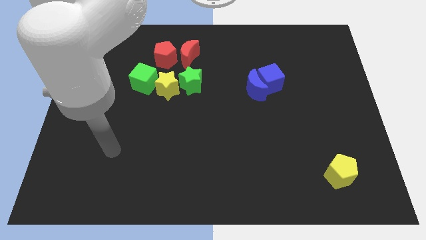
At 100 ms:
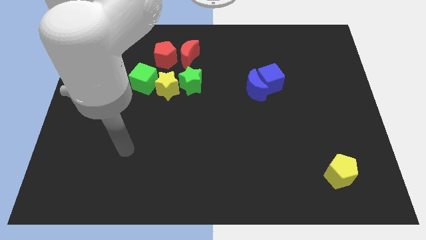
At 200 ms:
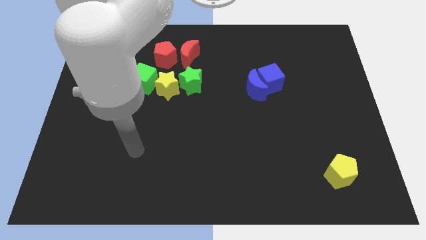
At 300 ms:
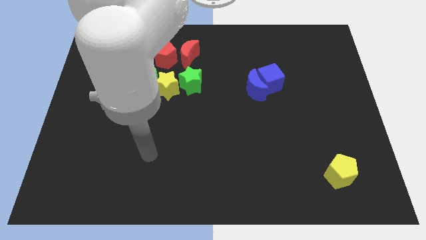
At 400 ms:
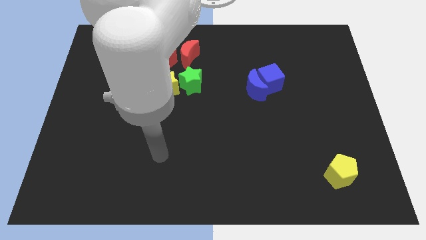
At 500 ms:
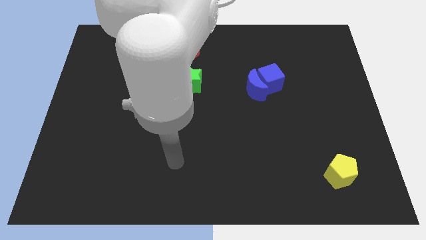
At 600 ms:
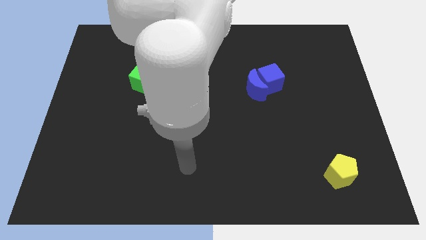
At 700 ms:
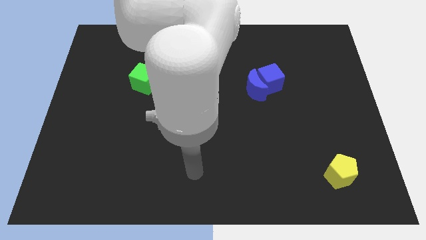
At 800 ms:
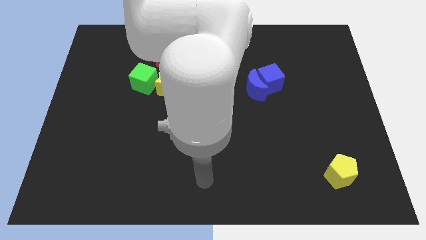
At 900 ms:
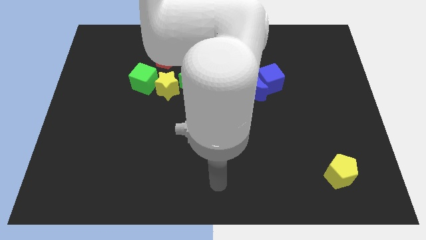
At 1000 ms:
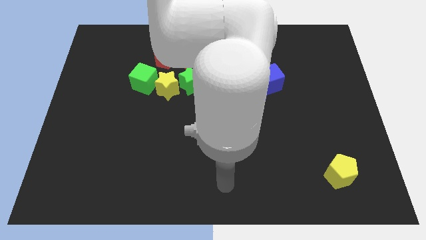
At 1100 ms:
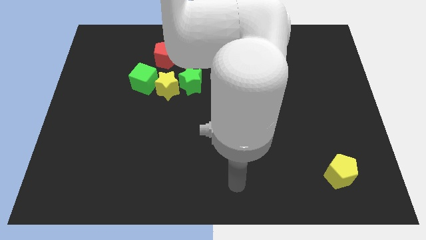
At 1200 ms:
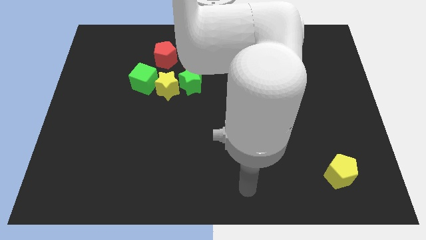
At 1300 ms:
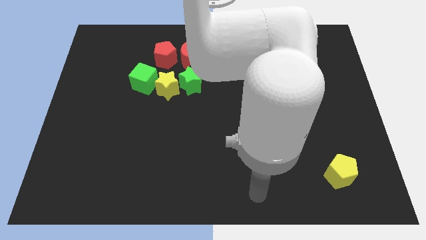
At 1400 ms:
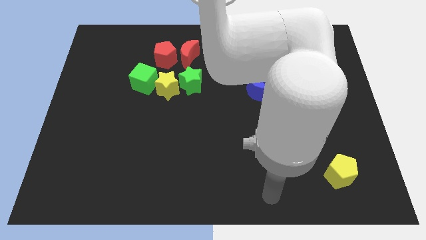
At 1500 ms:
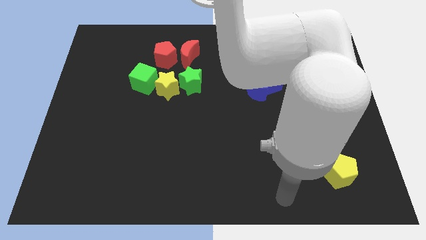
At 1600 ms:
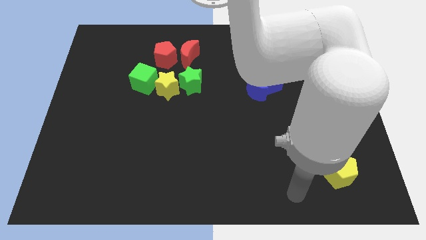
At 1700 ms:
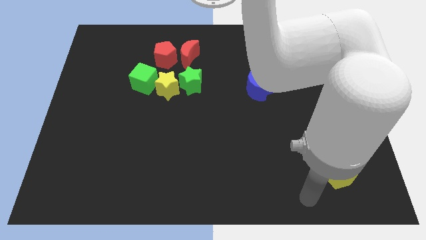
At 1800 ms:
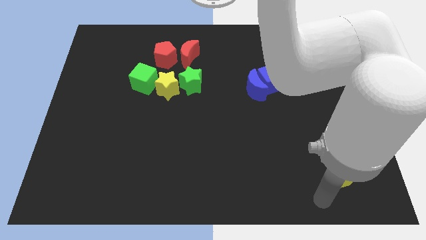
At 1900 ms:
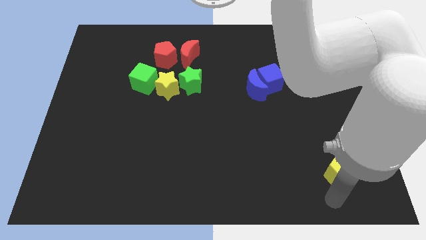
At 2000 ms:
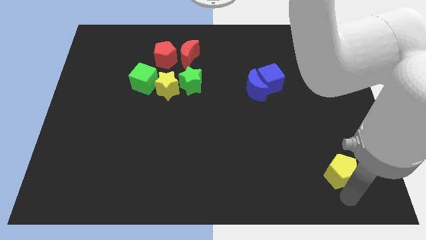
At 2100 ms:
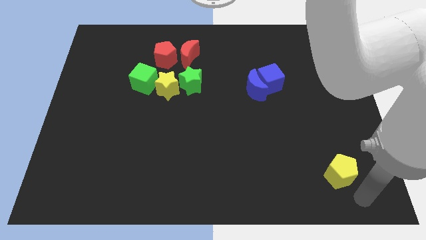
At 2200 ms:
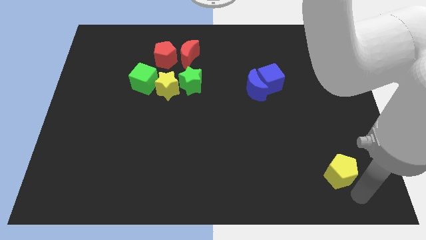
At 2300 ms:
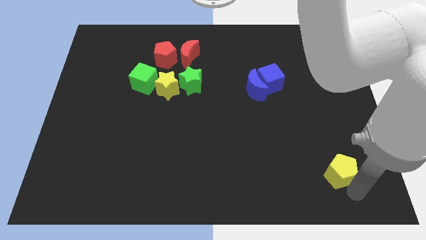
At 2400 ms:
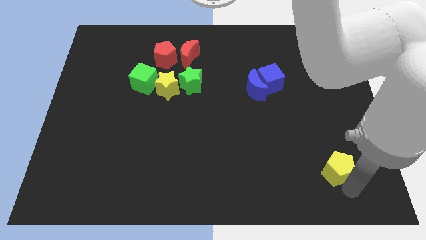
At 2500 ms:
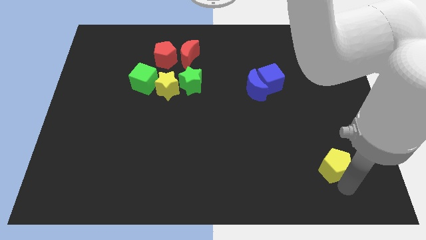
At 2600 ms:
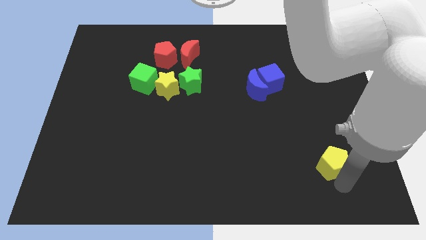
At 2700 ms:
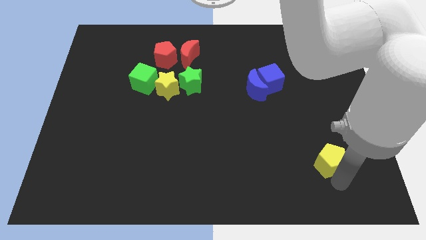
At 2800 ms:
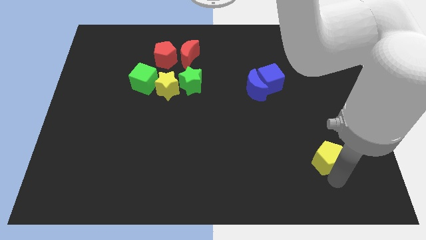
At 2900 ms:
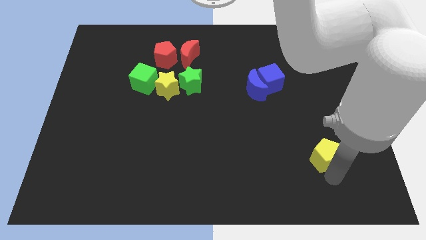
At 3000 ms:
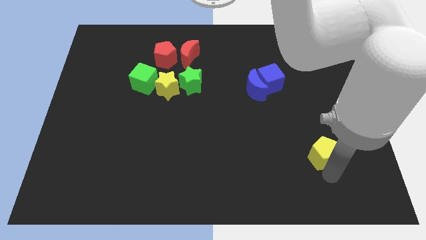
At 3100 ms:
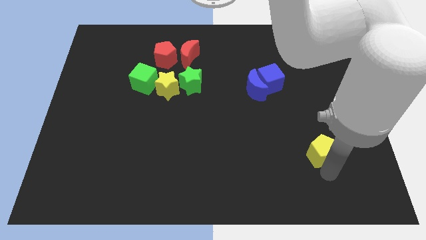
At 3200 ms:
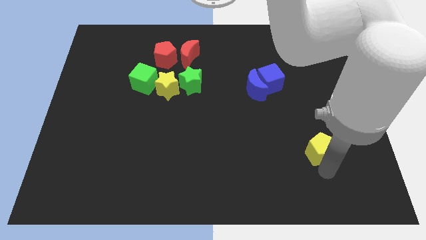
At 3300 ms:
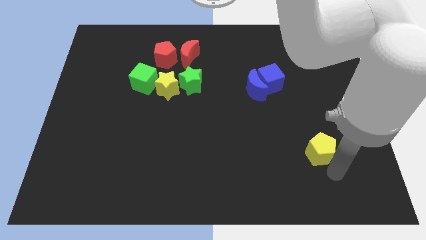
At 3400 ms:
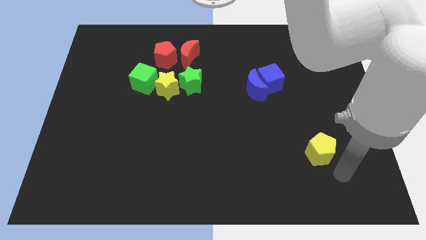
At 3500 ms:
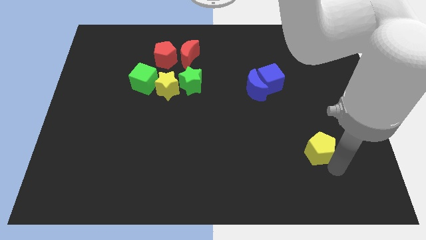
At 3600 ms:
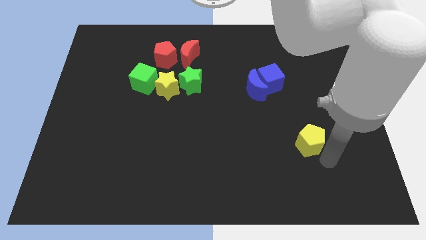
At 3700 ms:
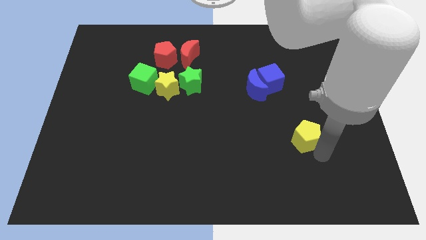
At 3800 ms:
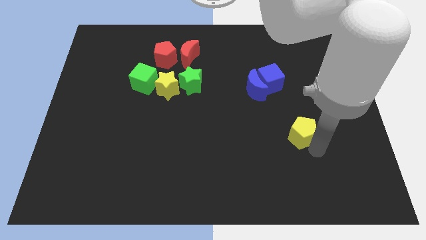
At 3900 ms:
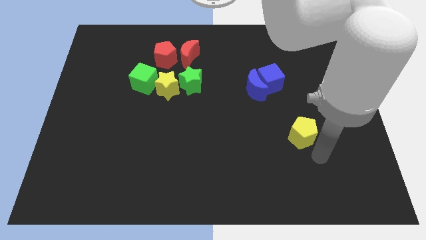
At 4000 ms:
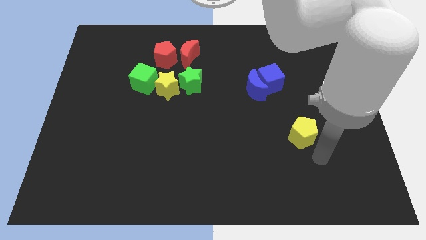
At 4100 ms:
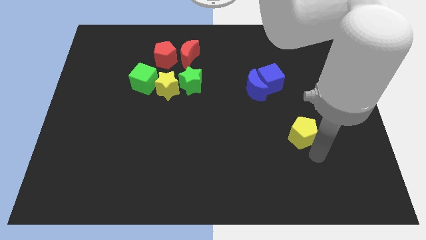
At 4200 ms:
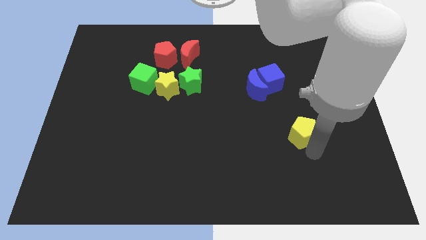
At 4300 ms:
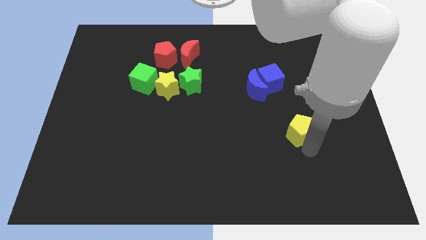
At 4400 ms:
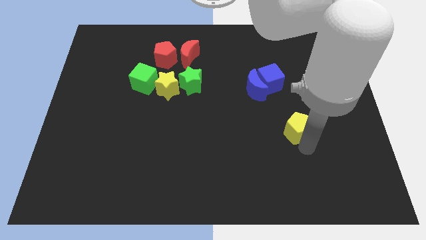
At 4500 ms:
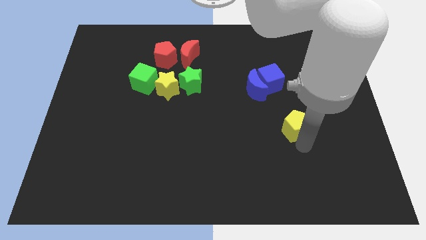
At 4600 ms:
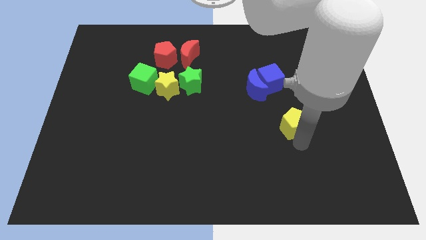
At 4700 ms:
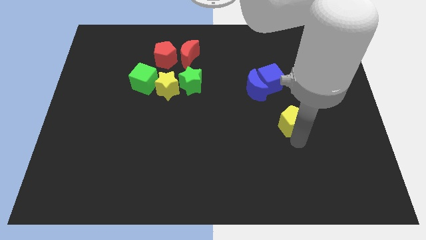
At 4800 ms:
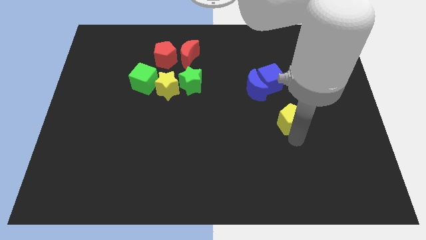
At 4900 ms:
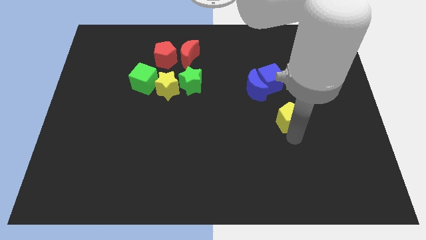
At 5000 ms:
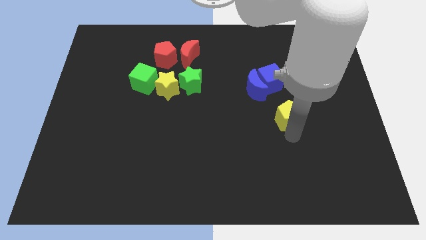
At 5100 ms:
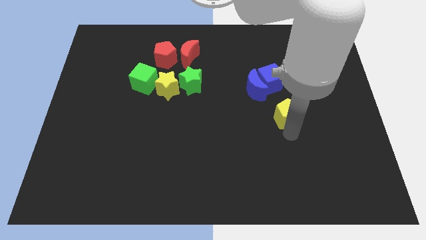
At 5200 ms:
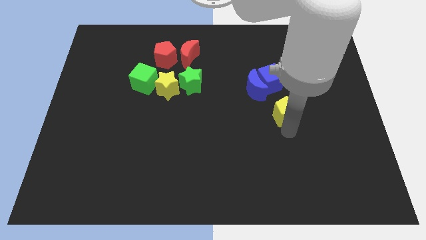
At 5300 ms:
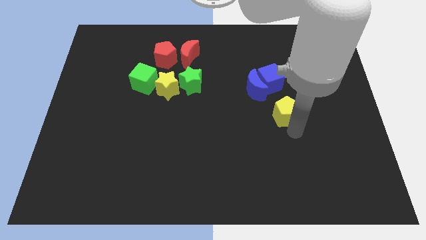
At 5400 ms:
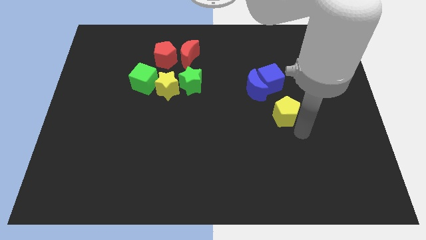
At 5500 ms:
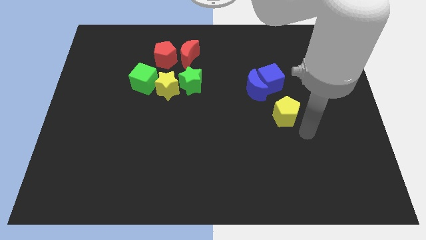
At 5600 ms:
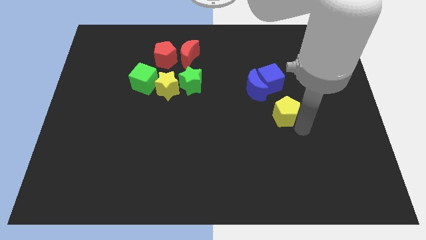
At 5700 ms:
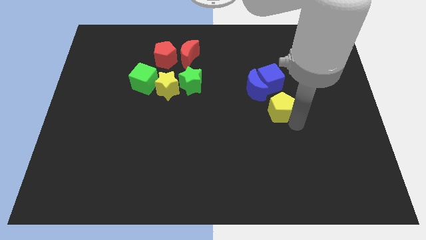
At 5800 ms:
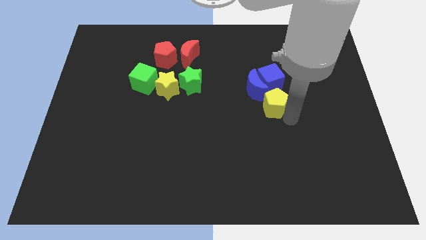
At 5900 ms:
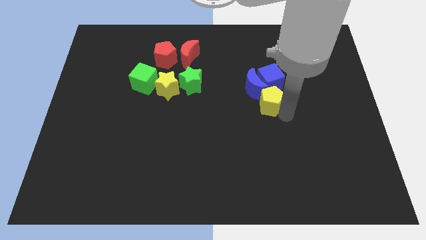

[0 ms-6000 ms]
put the yellow pentagon to the blue moon

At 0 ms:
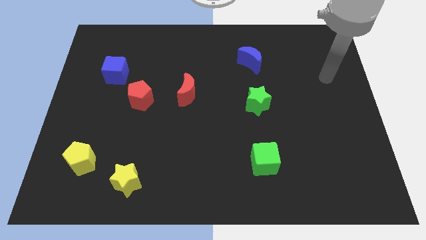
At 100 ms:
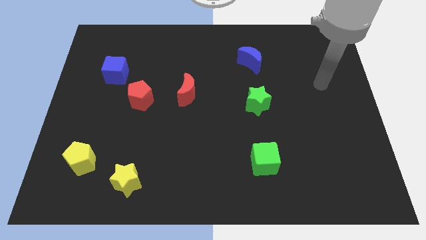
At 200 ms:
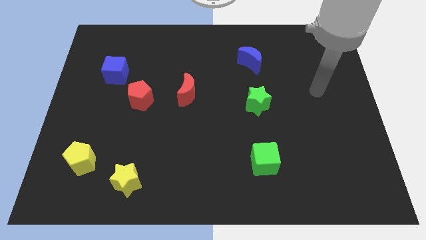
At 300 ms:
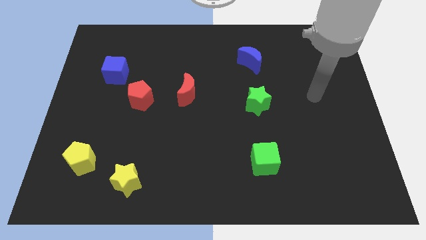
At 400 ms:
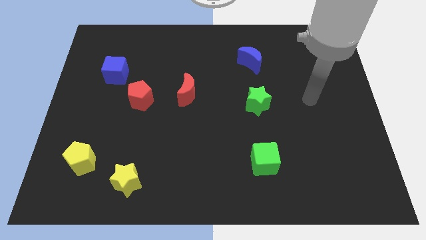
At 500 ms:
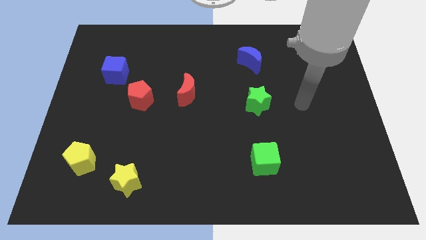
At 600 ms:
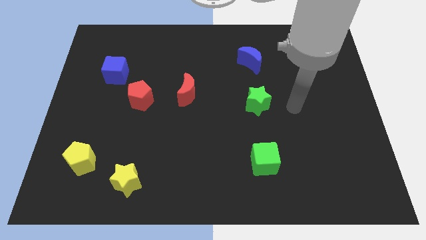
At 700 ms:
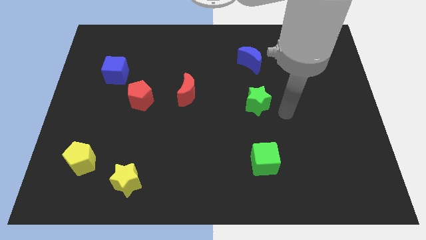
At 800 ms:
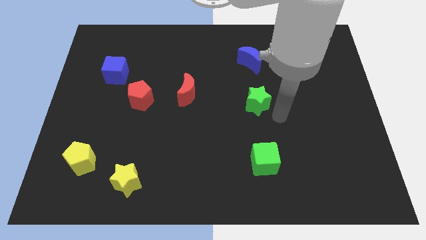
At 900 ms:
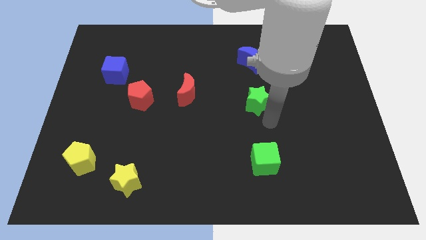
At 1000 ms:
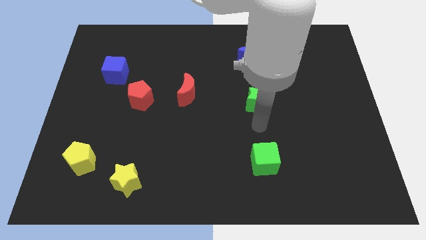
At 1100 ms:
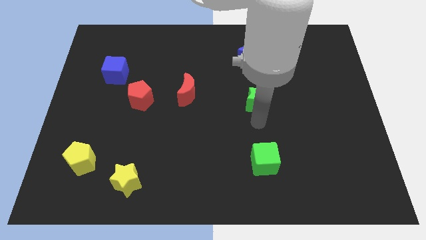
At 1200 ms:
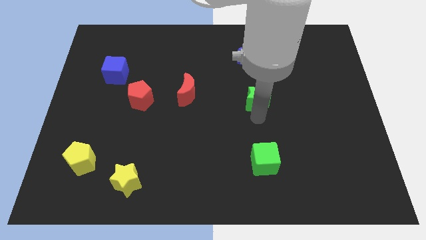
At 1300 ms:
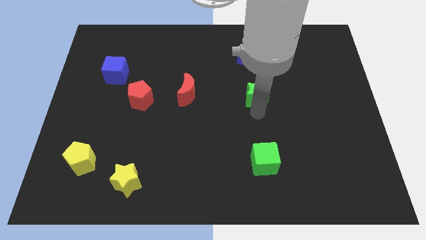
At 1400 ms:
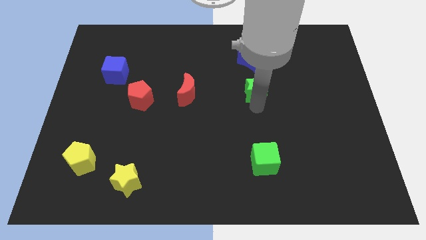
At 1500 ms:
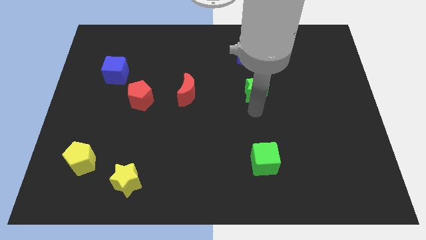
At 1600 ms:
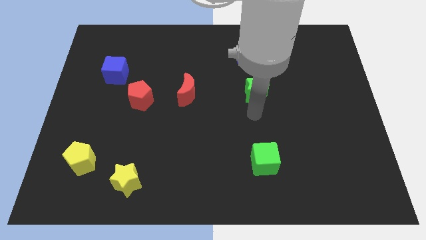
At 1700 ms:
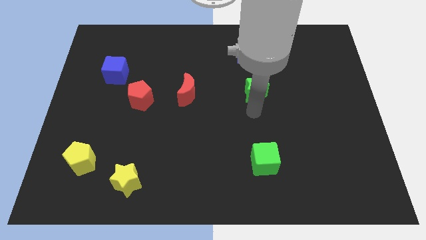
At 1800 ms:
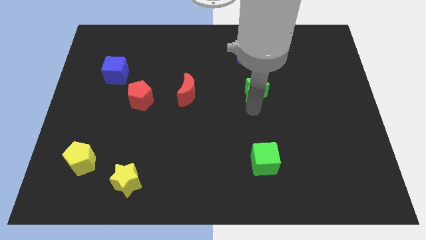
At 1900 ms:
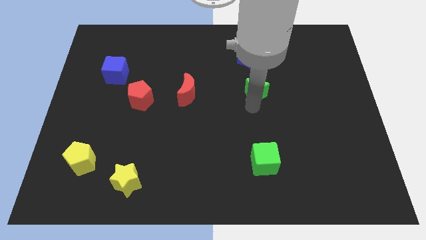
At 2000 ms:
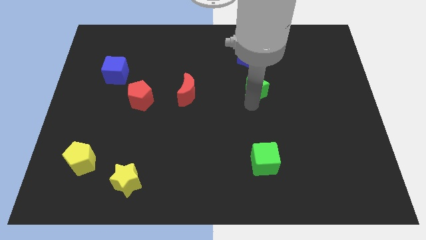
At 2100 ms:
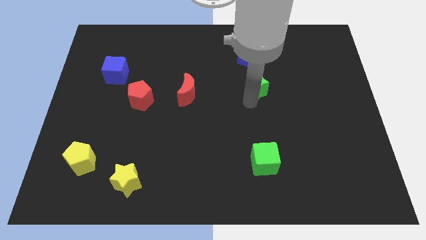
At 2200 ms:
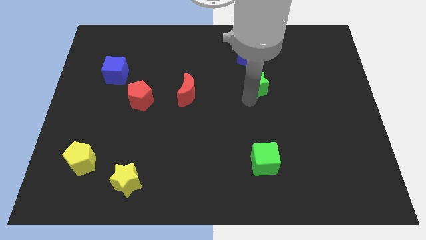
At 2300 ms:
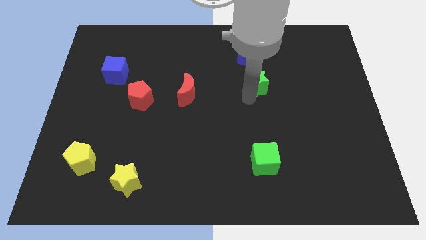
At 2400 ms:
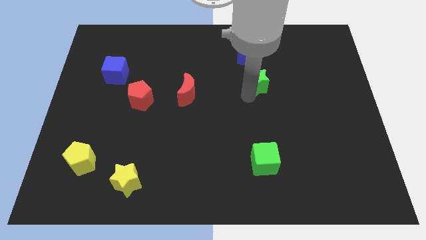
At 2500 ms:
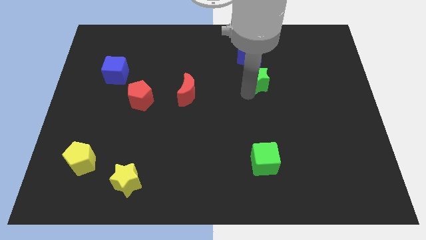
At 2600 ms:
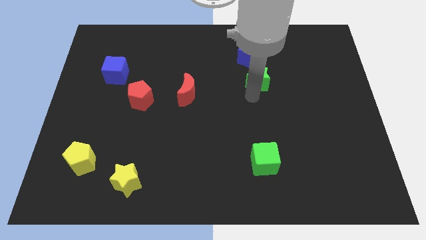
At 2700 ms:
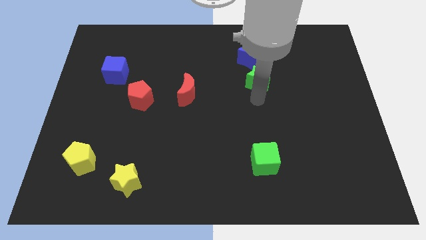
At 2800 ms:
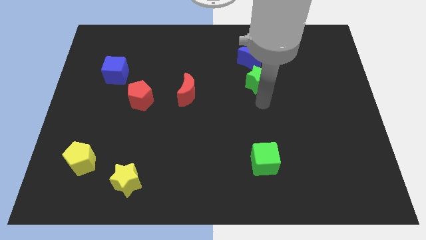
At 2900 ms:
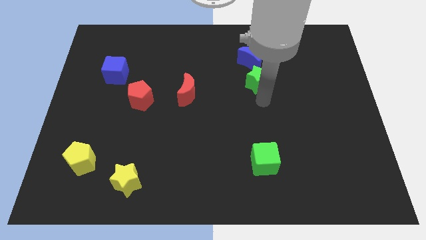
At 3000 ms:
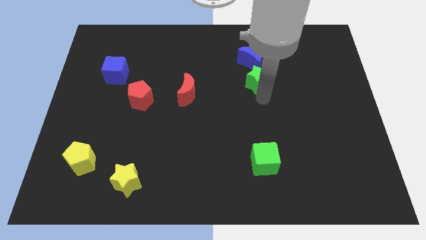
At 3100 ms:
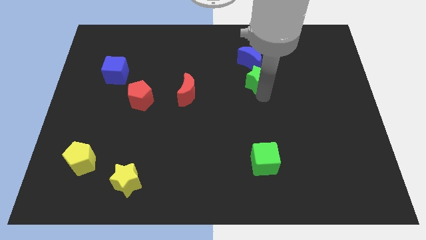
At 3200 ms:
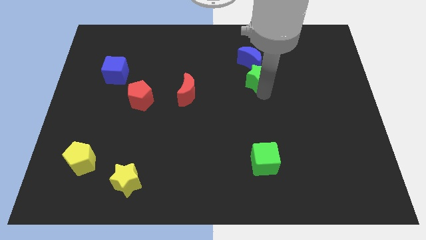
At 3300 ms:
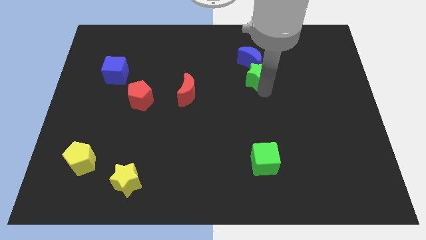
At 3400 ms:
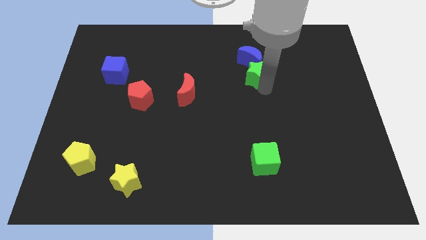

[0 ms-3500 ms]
slide the green star close to the blue moon
